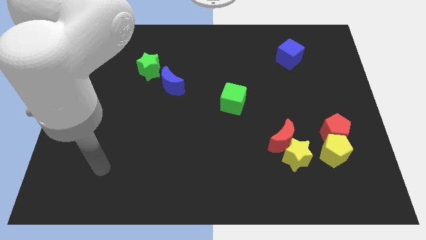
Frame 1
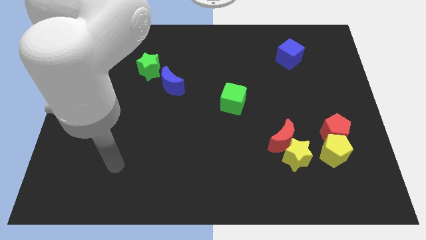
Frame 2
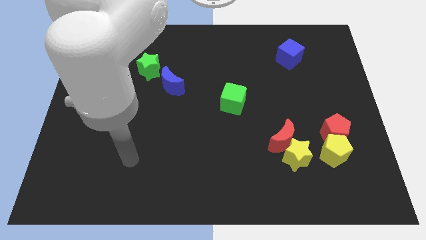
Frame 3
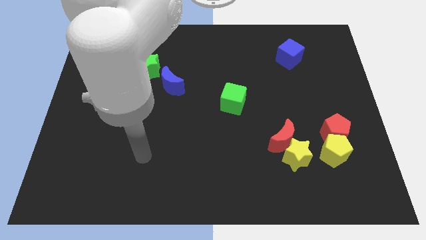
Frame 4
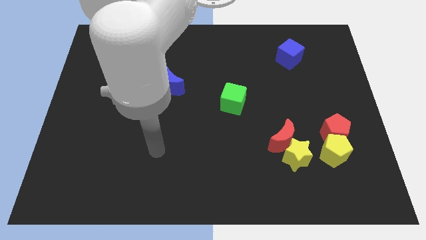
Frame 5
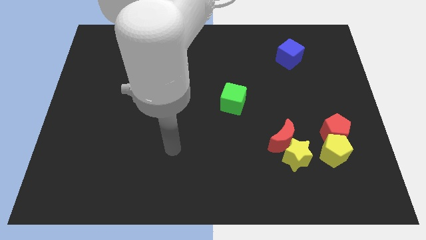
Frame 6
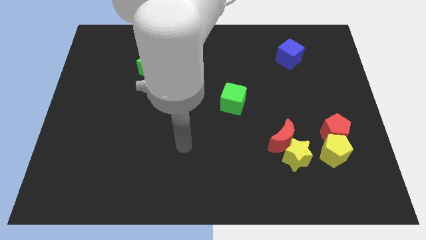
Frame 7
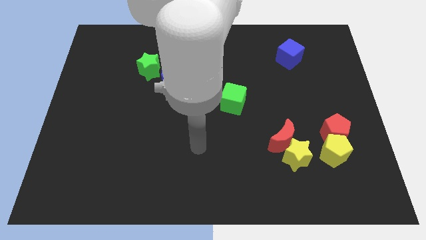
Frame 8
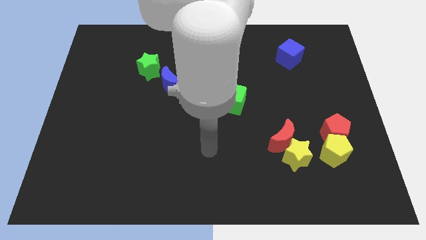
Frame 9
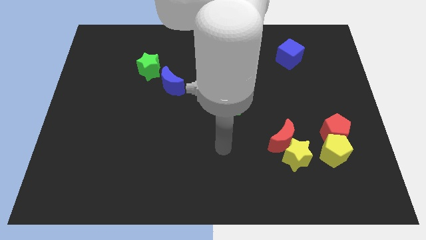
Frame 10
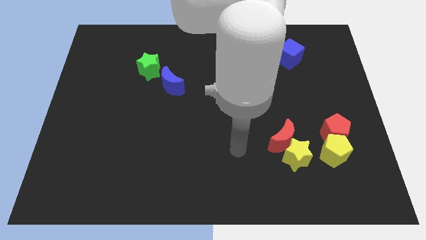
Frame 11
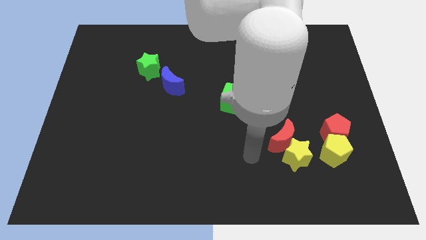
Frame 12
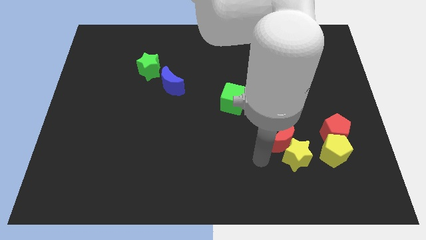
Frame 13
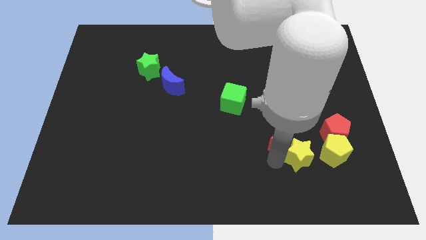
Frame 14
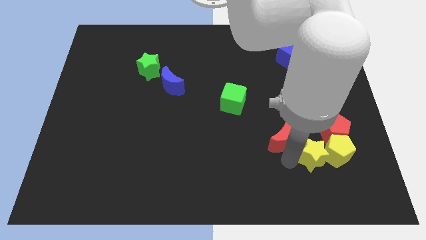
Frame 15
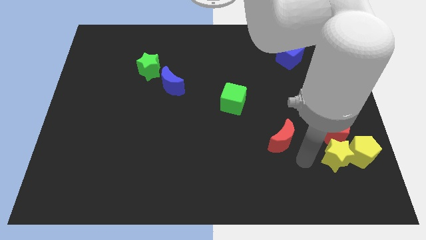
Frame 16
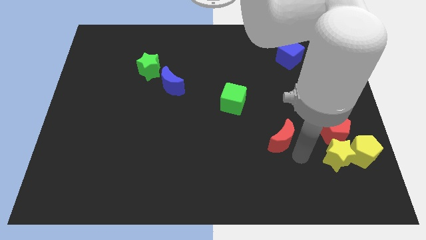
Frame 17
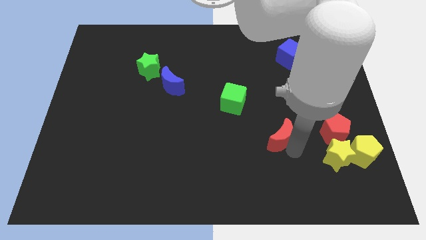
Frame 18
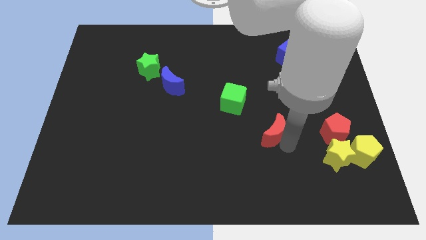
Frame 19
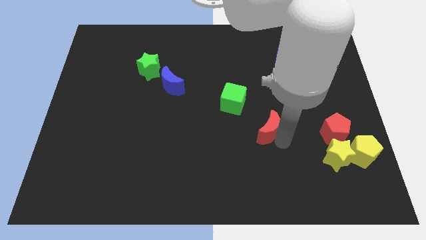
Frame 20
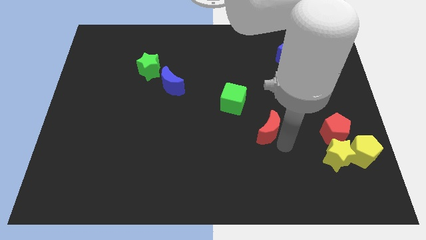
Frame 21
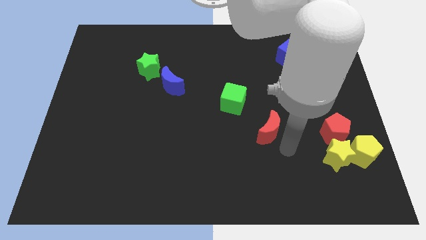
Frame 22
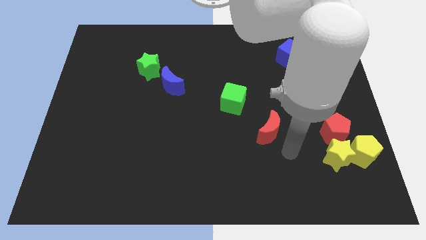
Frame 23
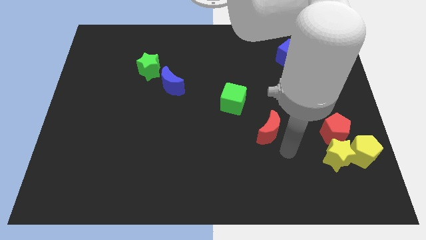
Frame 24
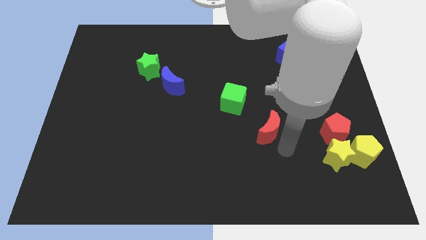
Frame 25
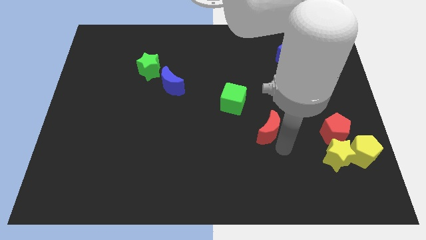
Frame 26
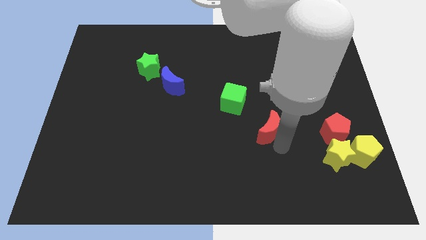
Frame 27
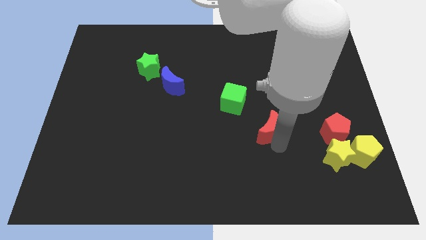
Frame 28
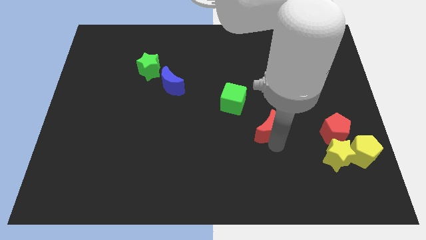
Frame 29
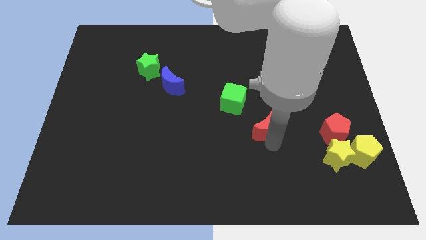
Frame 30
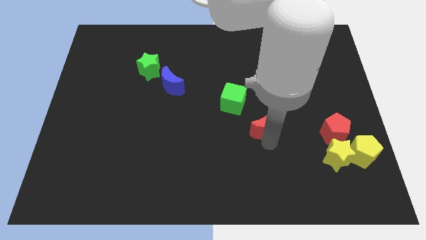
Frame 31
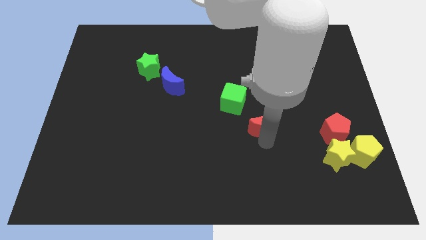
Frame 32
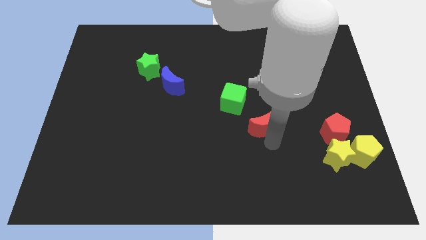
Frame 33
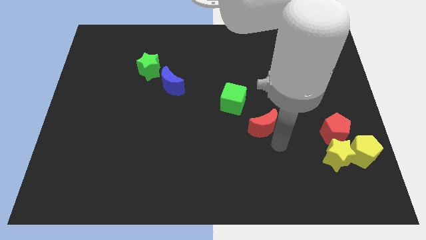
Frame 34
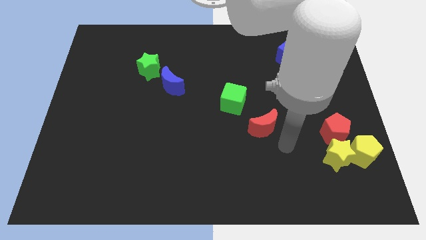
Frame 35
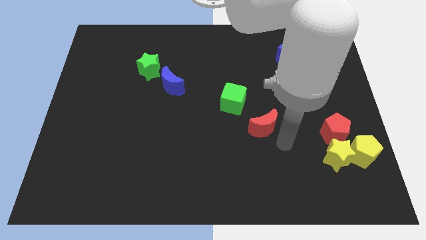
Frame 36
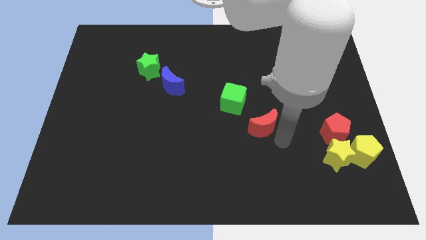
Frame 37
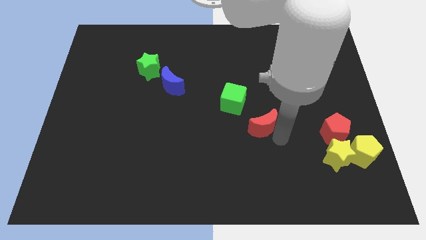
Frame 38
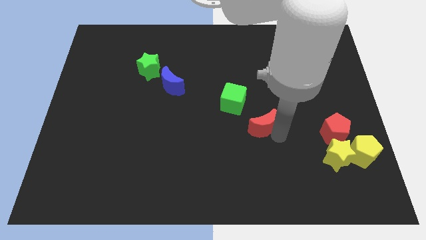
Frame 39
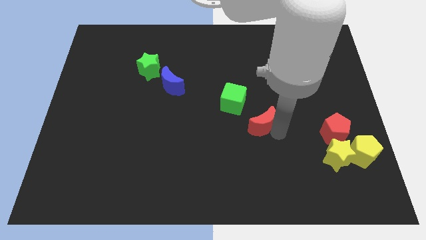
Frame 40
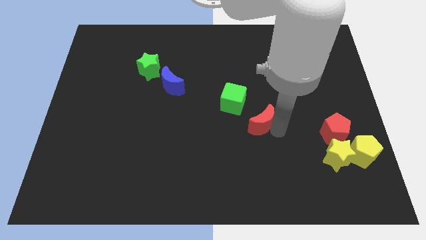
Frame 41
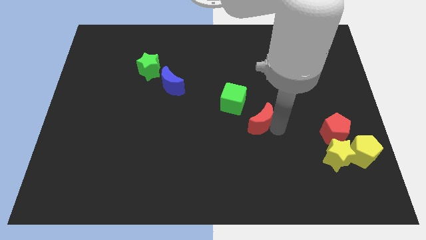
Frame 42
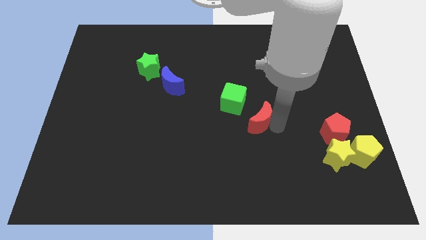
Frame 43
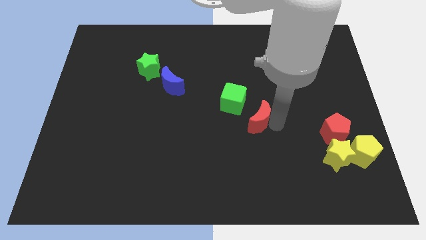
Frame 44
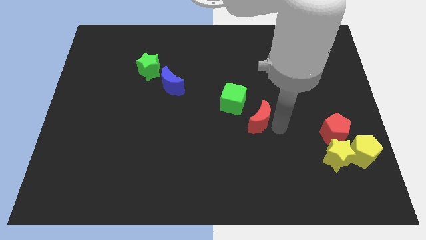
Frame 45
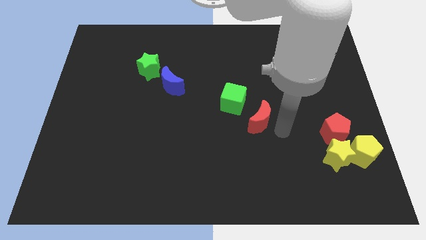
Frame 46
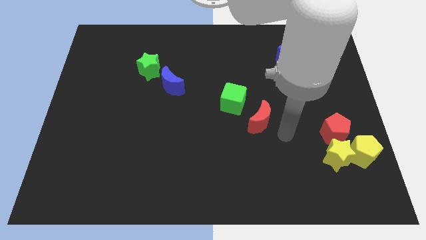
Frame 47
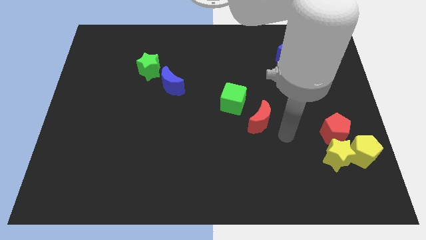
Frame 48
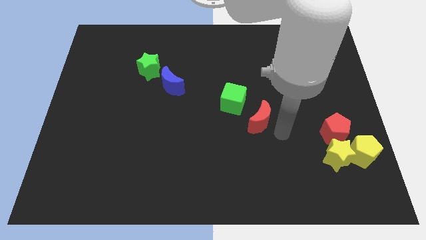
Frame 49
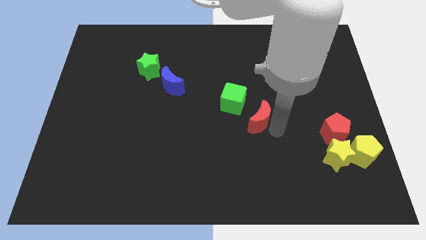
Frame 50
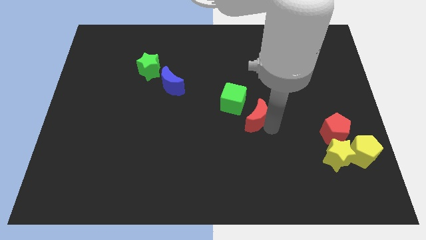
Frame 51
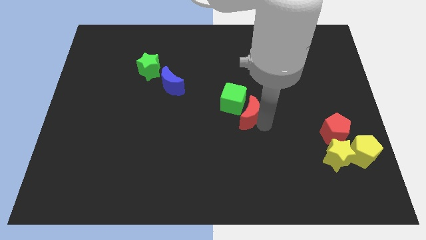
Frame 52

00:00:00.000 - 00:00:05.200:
put the red moon to the green cube

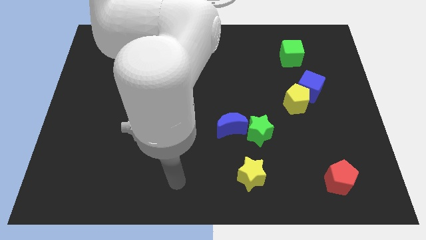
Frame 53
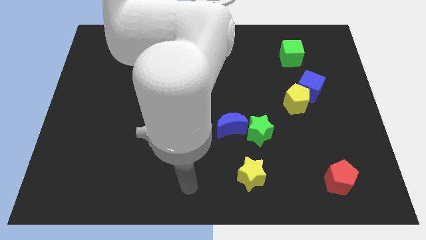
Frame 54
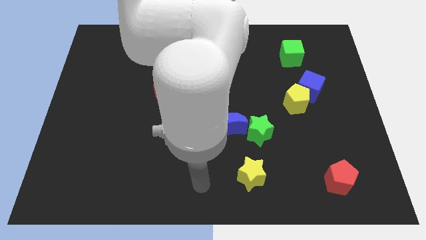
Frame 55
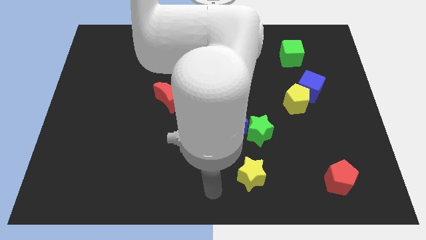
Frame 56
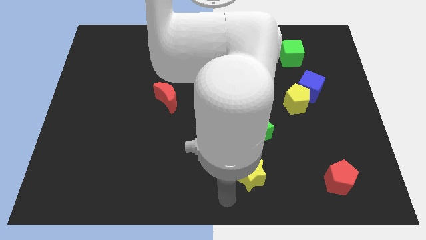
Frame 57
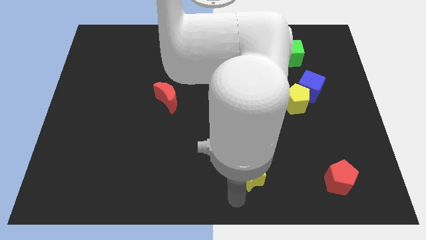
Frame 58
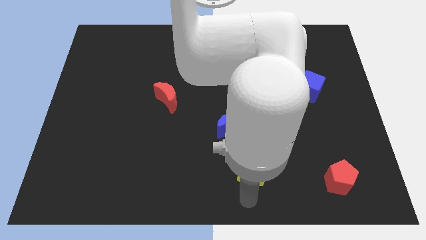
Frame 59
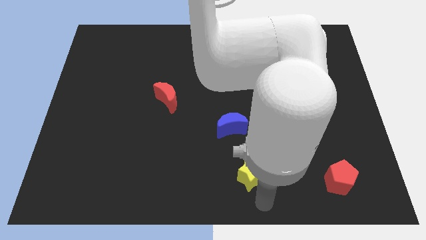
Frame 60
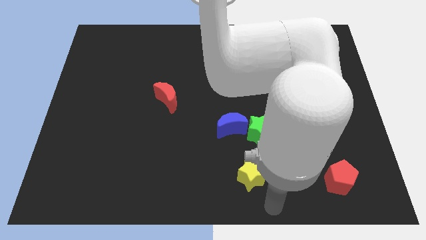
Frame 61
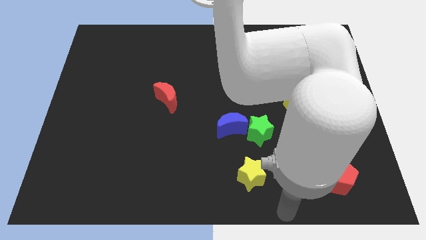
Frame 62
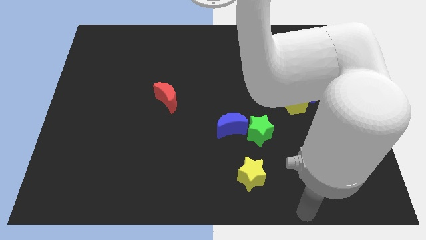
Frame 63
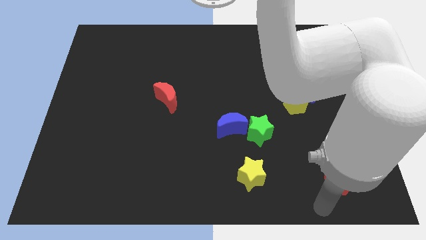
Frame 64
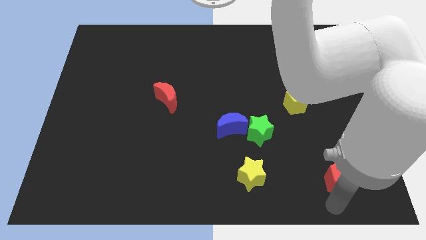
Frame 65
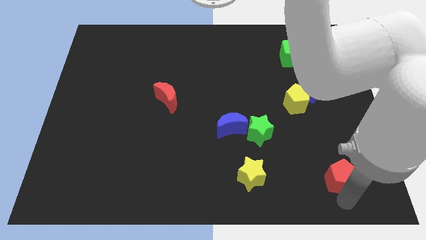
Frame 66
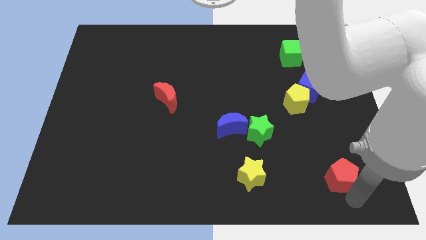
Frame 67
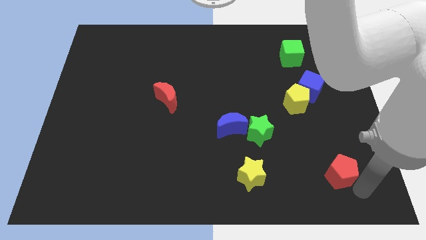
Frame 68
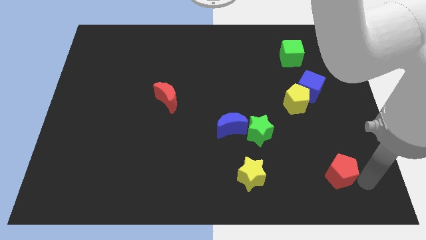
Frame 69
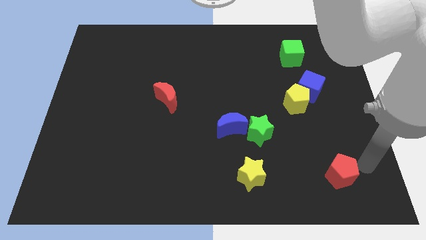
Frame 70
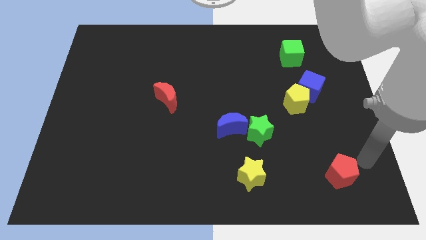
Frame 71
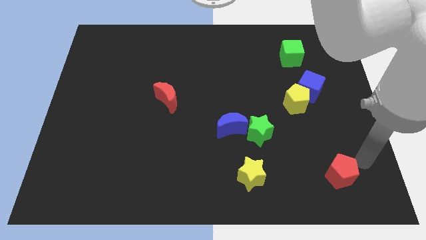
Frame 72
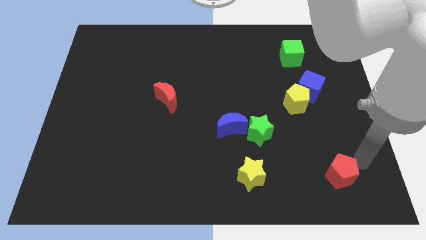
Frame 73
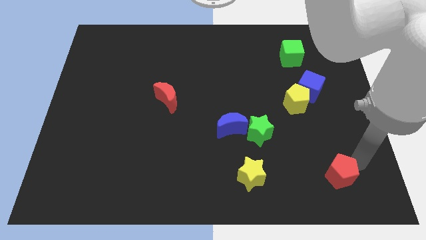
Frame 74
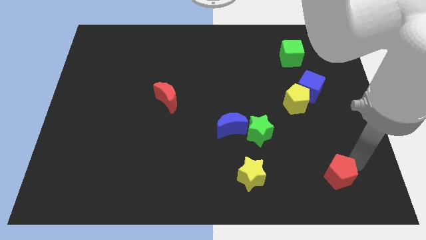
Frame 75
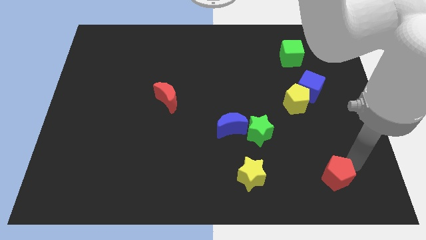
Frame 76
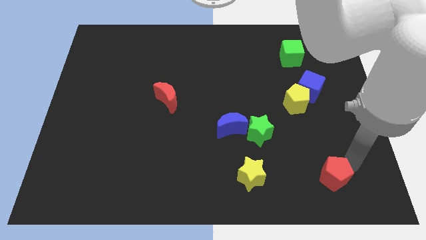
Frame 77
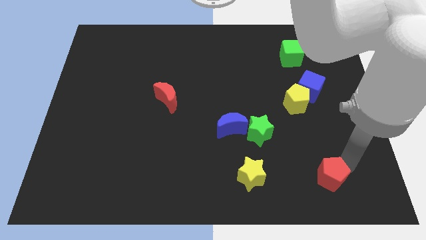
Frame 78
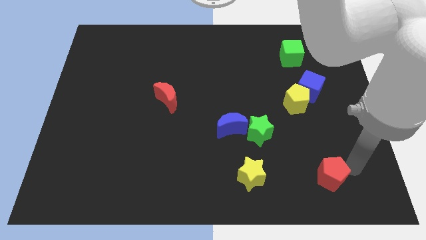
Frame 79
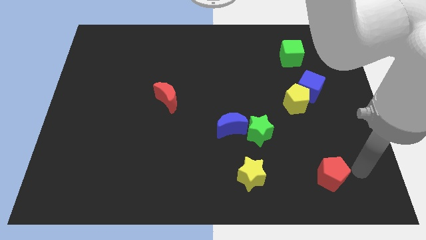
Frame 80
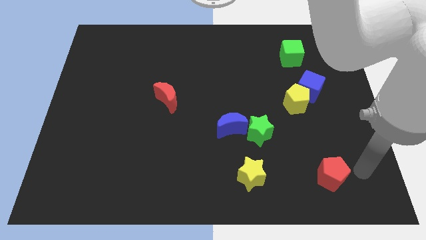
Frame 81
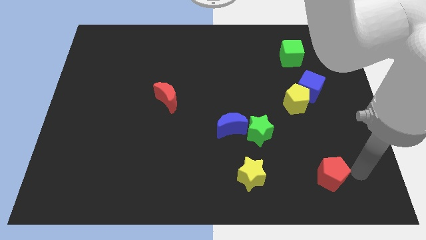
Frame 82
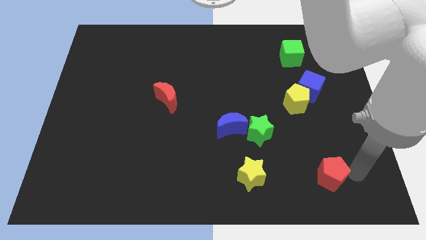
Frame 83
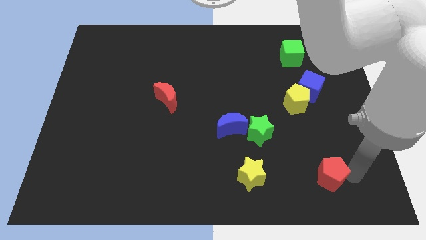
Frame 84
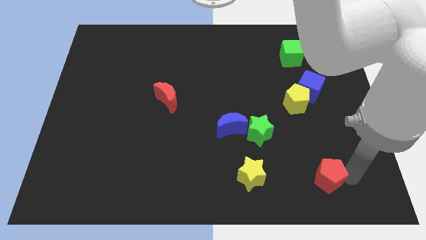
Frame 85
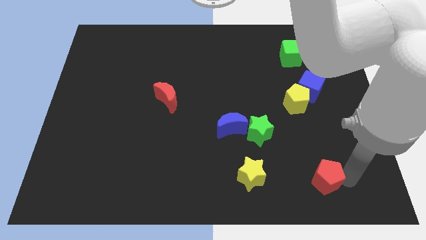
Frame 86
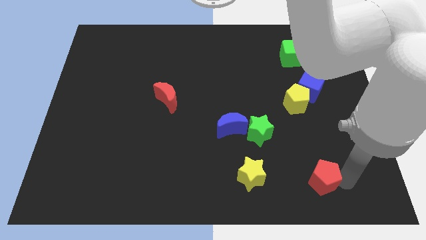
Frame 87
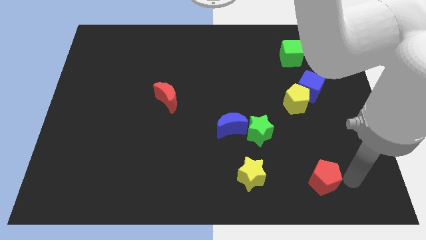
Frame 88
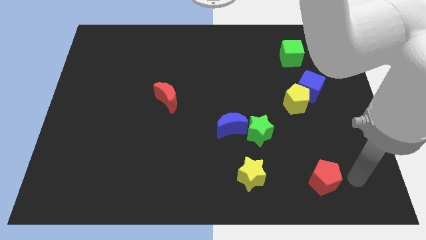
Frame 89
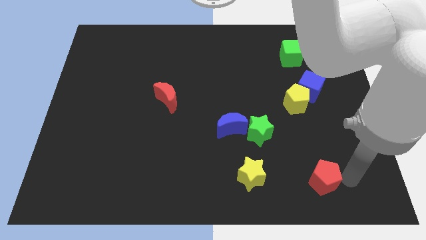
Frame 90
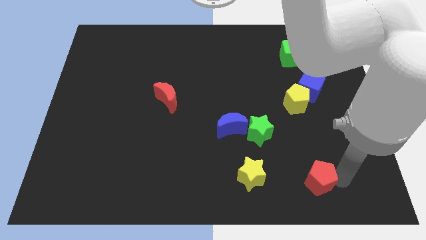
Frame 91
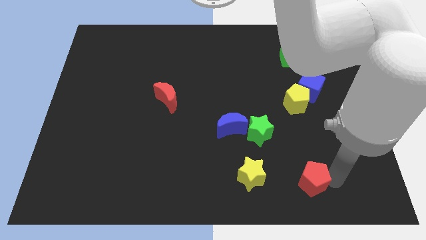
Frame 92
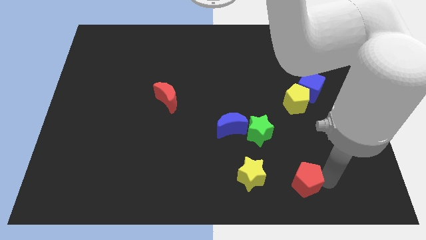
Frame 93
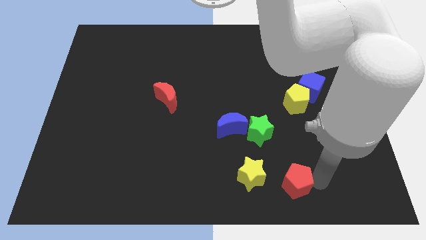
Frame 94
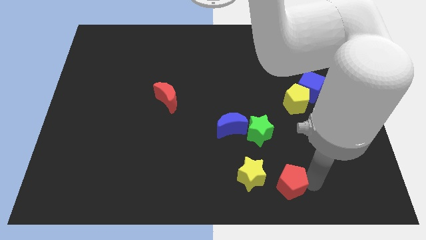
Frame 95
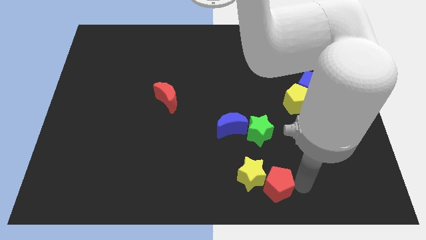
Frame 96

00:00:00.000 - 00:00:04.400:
push the red pentagon close to the yellow star
